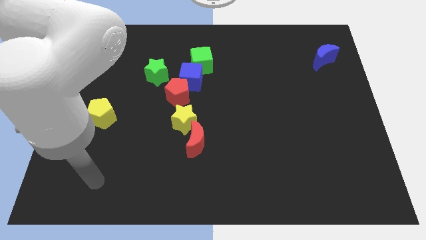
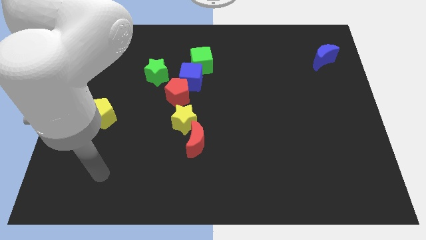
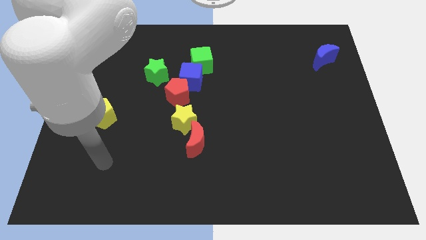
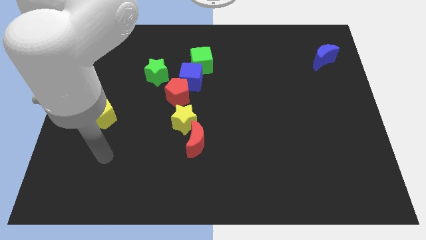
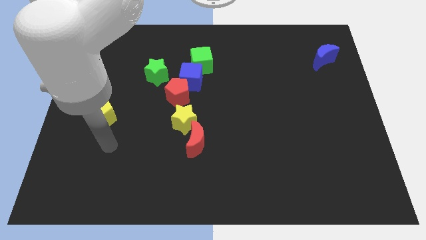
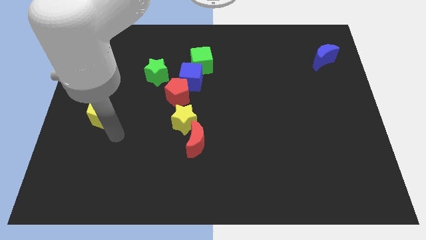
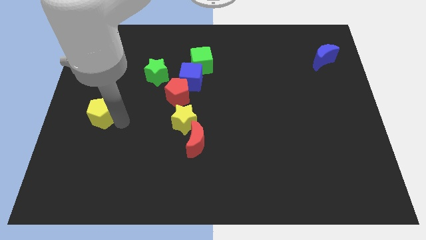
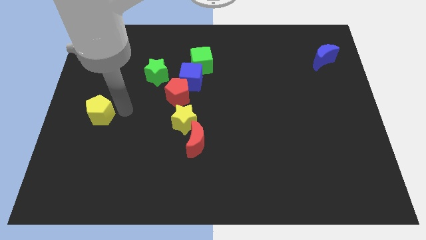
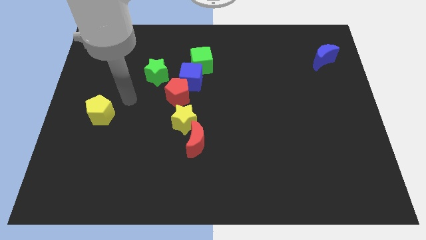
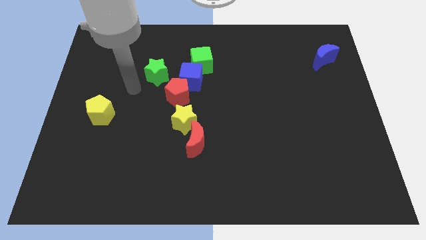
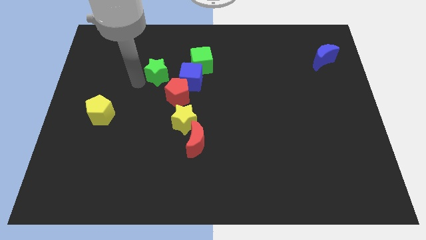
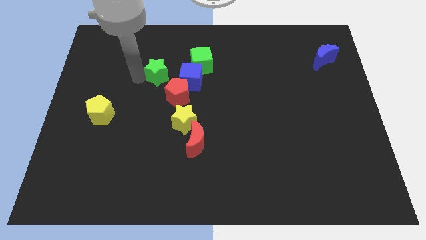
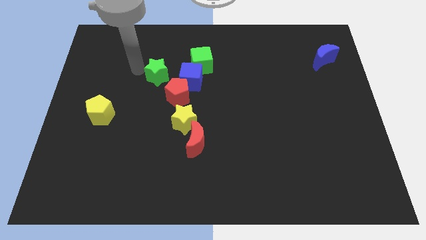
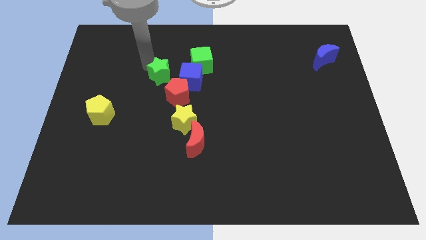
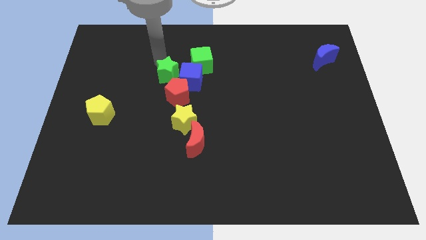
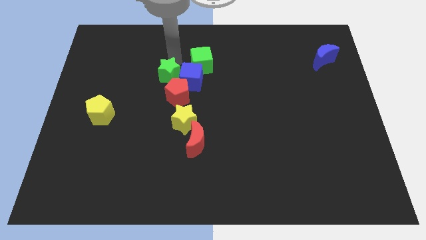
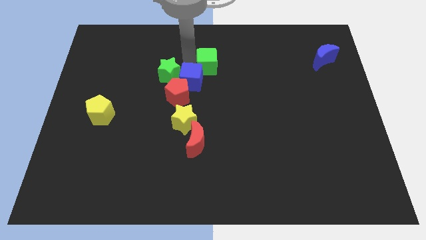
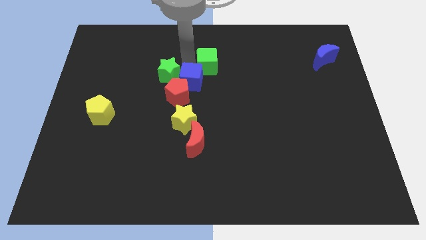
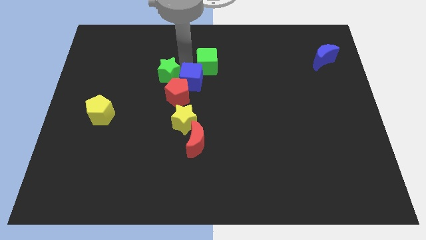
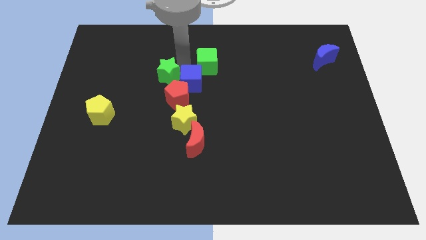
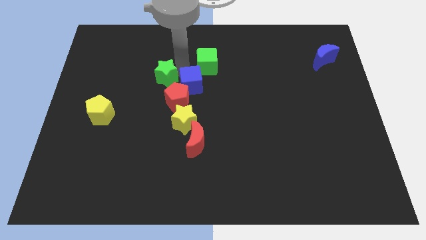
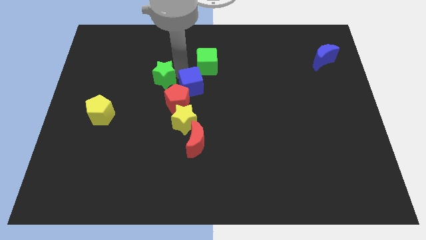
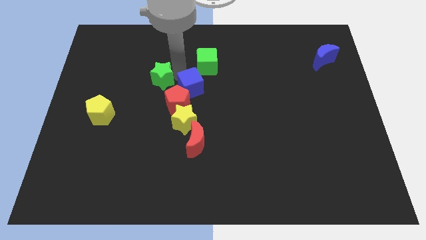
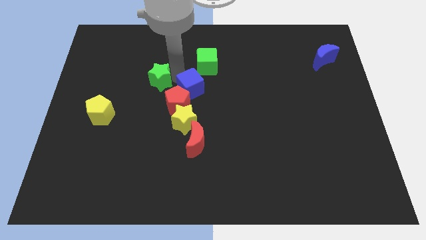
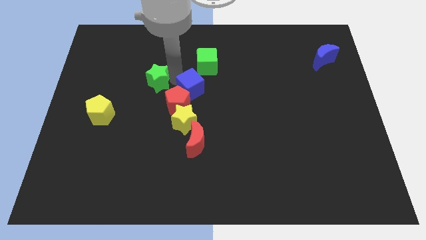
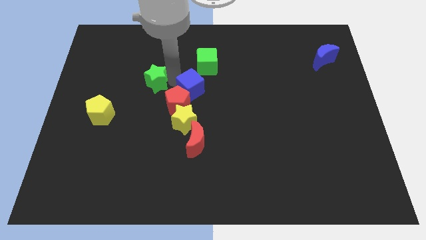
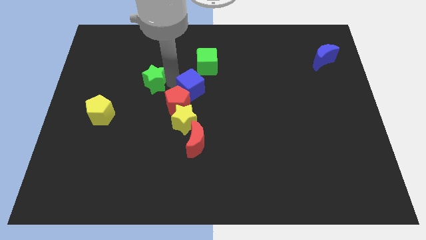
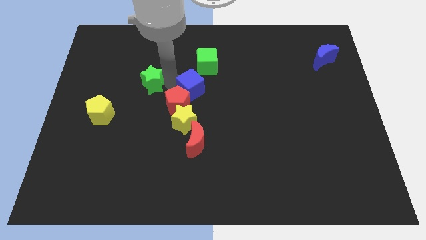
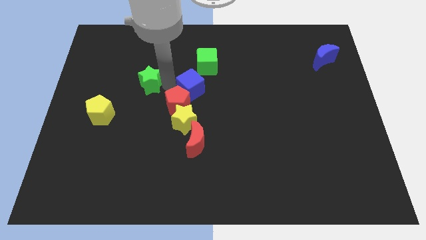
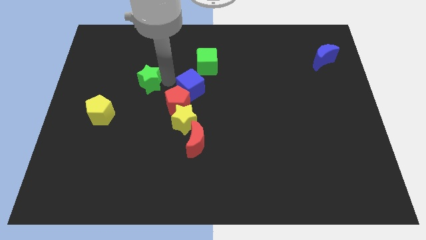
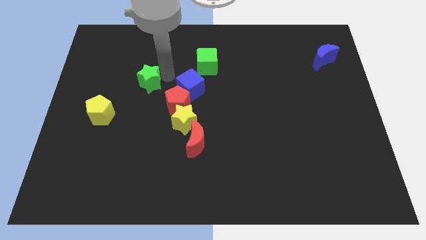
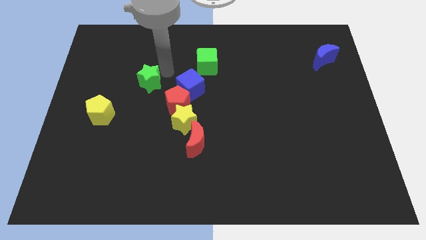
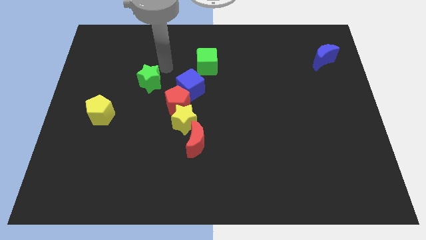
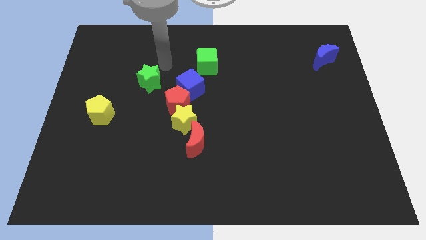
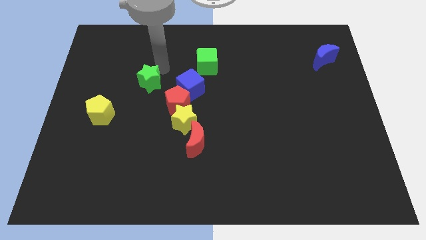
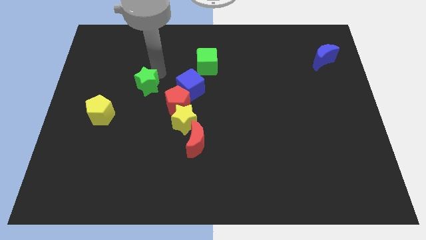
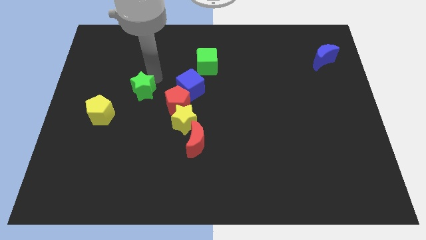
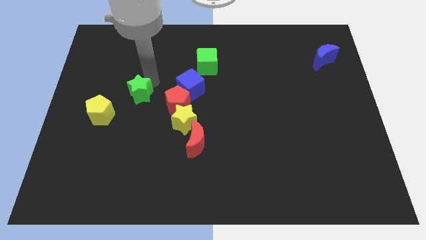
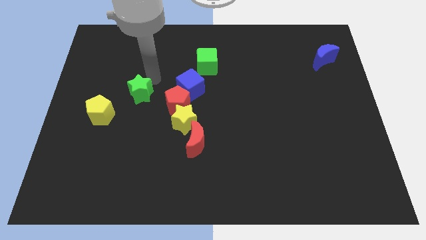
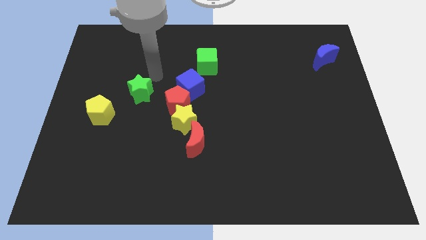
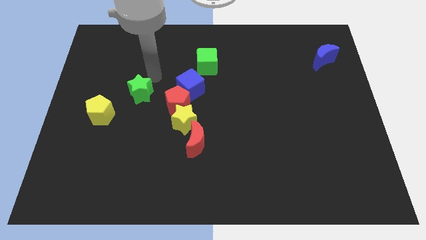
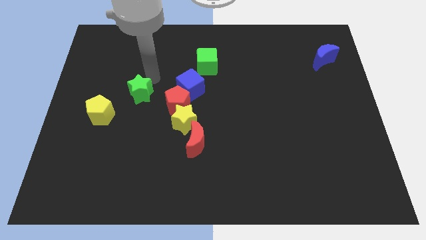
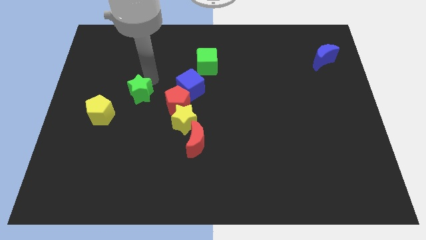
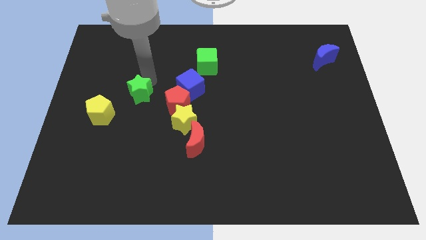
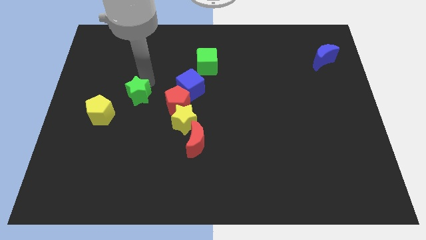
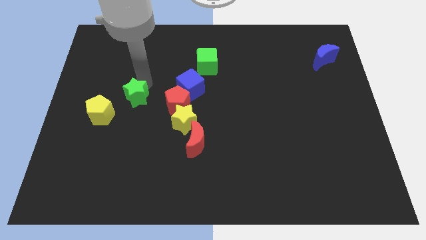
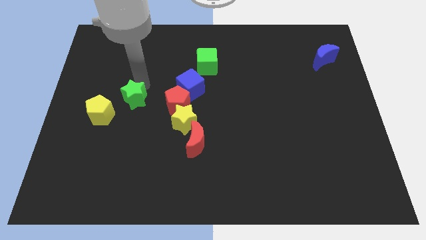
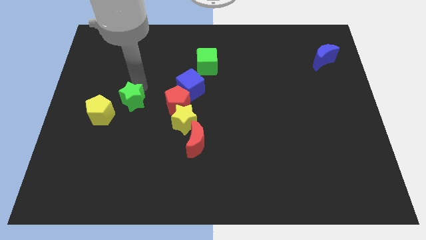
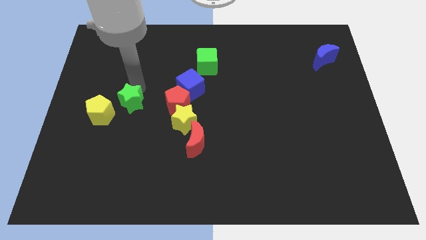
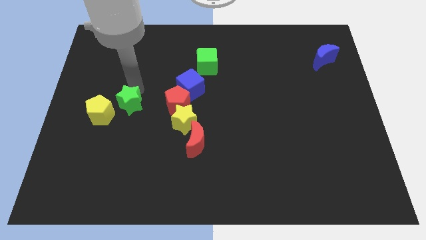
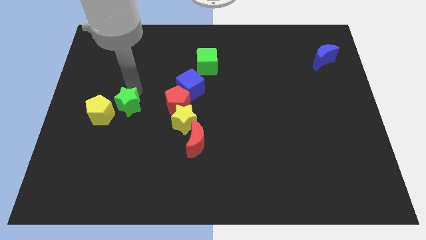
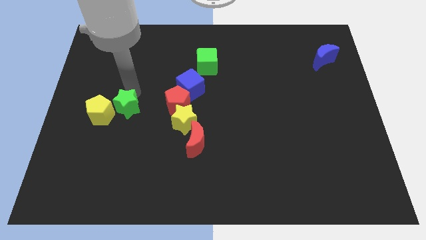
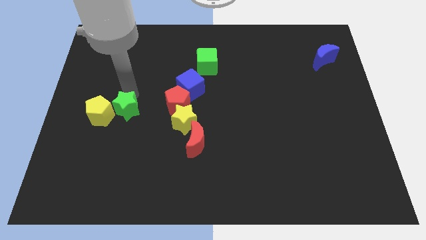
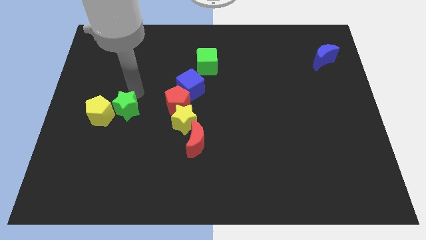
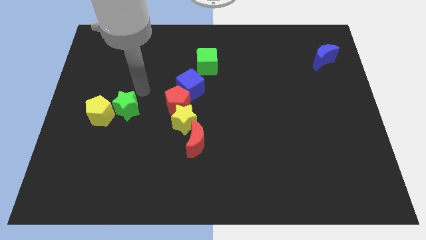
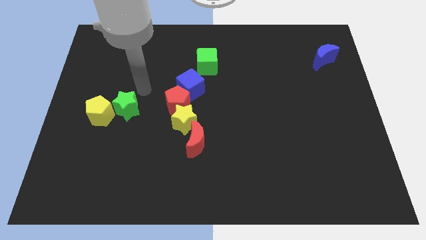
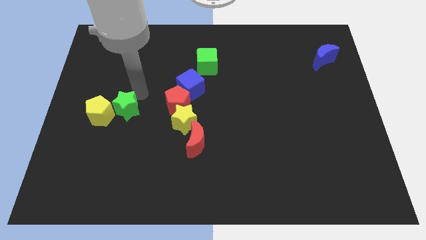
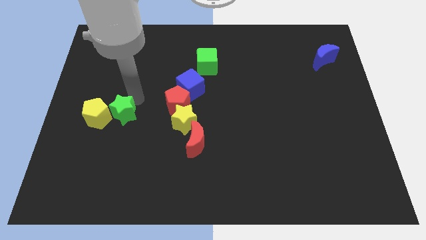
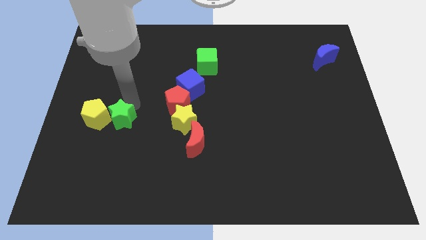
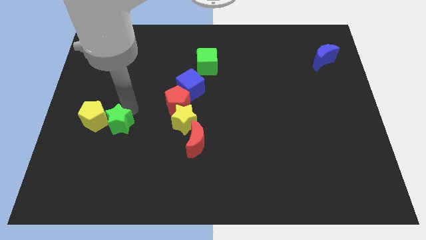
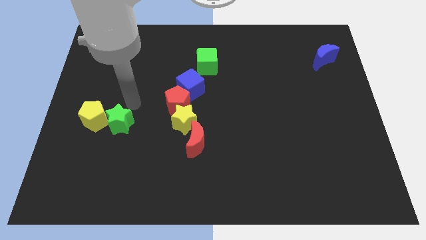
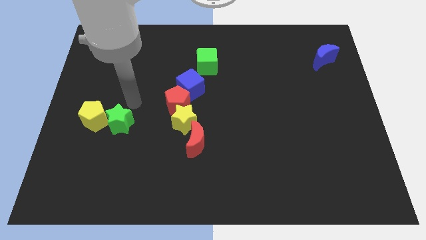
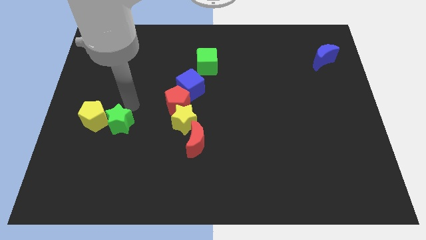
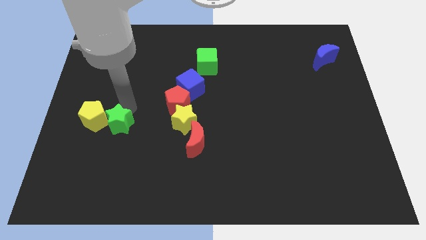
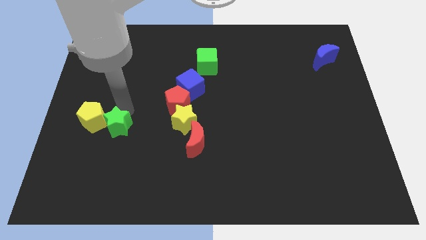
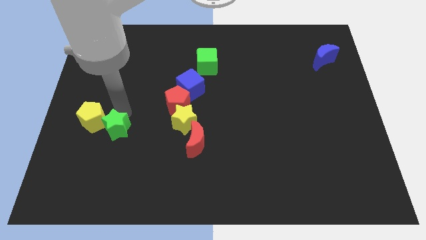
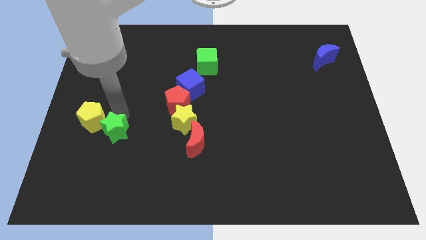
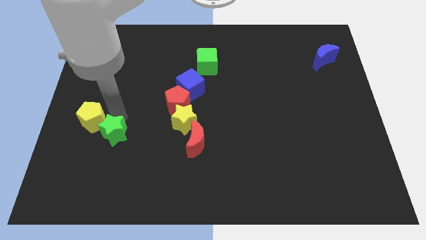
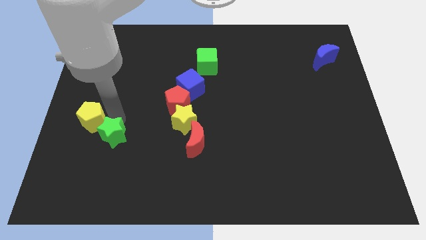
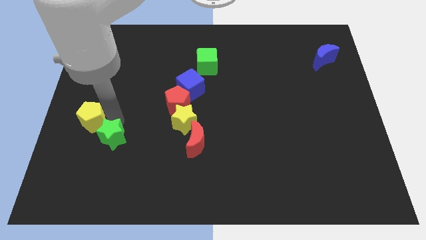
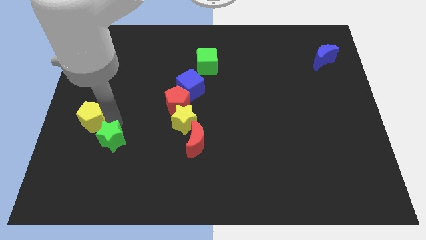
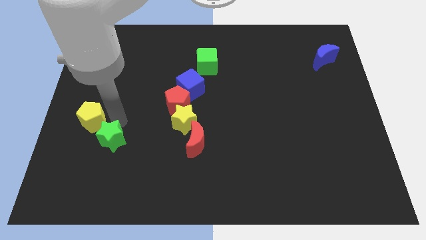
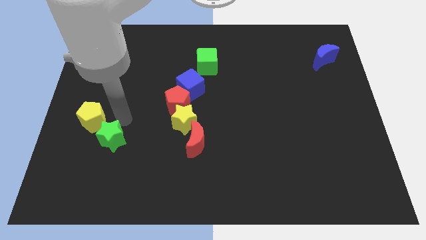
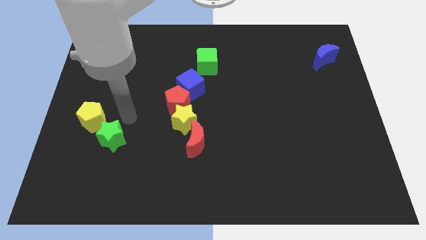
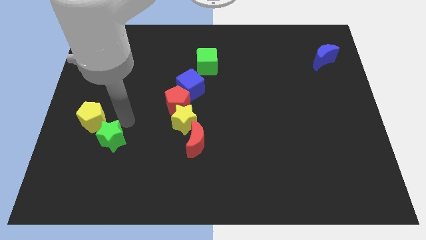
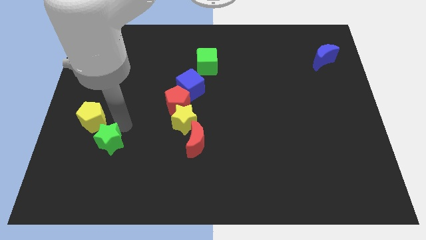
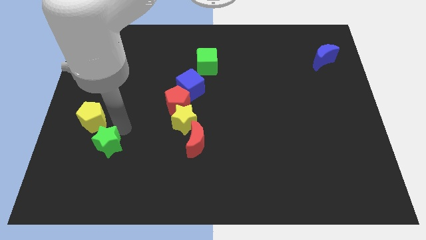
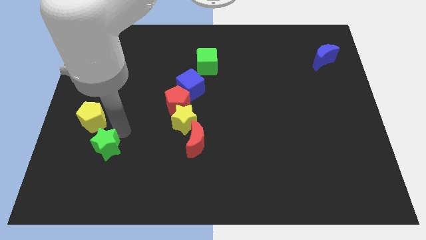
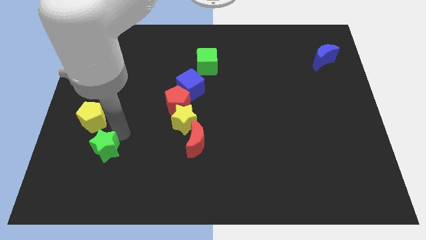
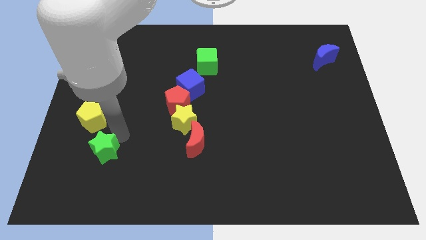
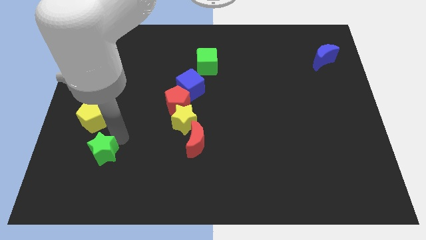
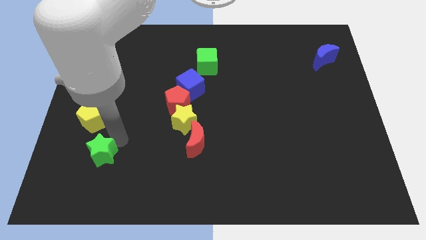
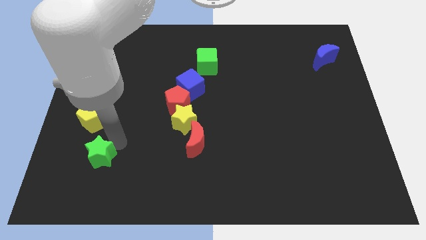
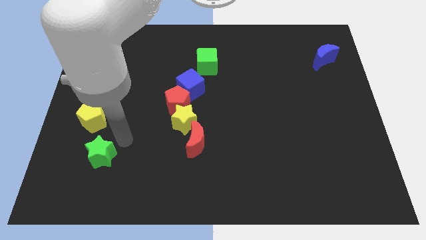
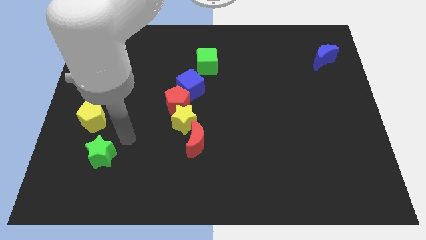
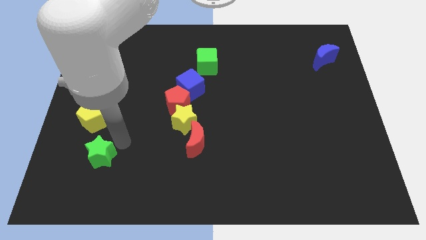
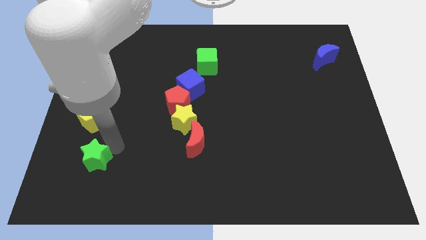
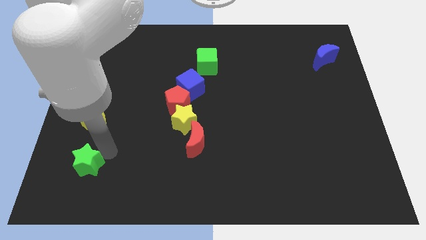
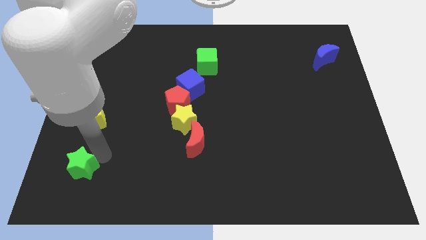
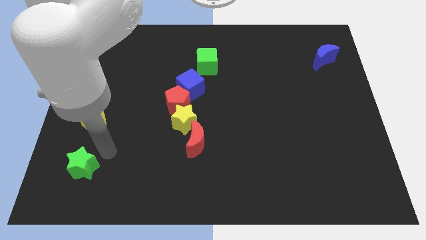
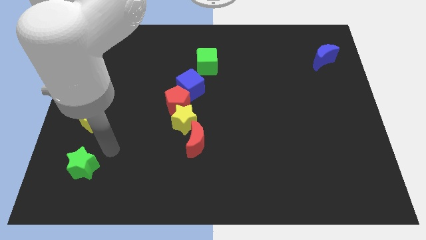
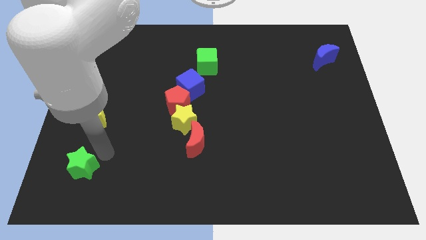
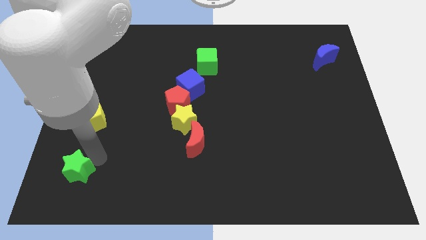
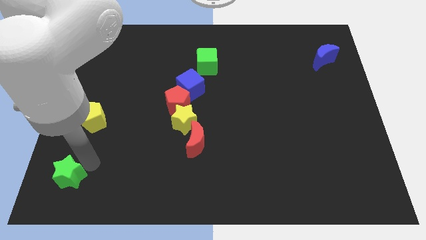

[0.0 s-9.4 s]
move the green star to the lower left corner
